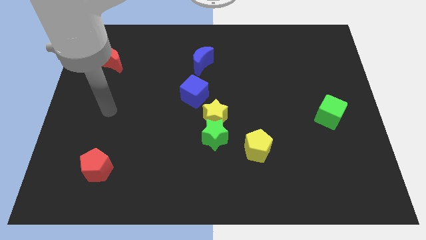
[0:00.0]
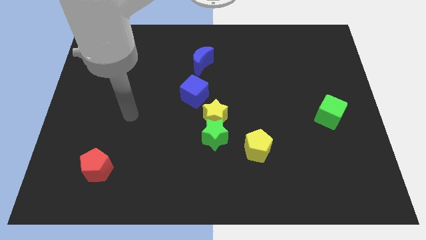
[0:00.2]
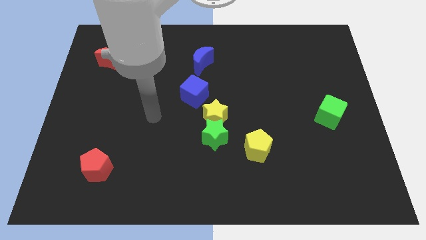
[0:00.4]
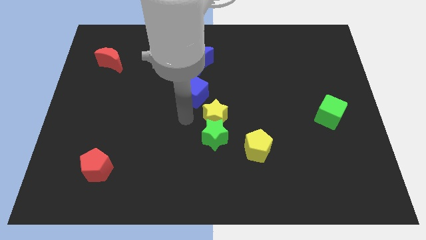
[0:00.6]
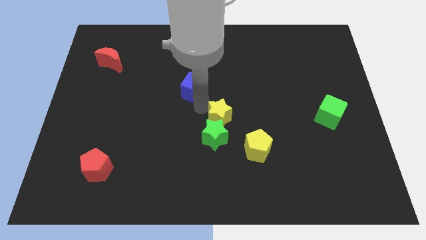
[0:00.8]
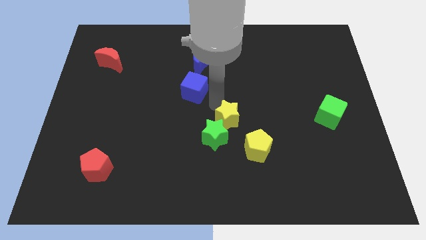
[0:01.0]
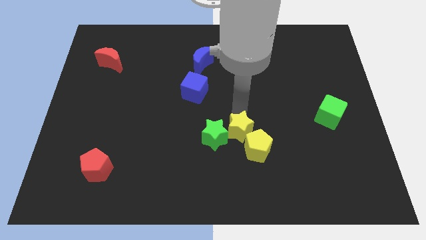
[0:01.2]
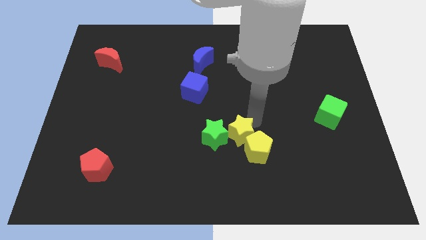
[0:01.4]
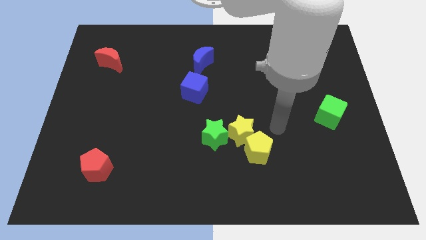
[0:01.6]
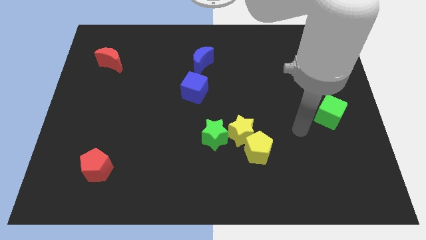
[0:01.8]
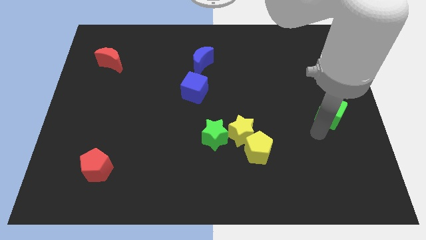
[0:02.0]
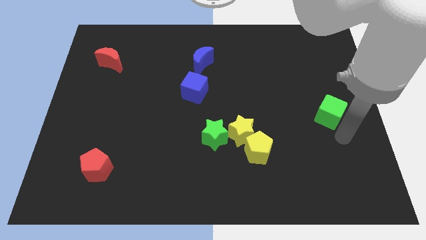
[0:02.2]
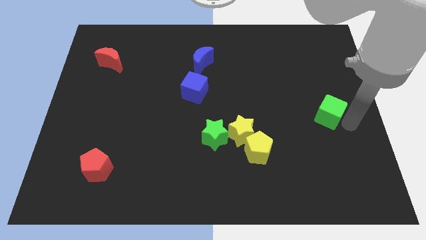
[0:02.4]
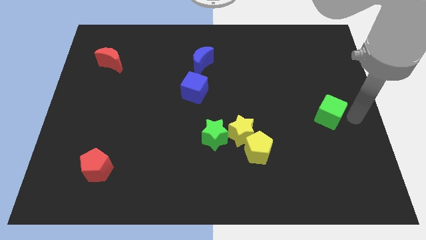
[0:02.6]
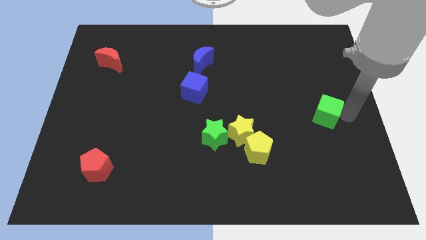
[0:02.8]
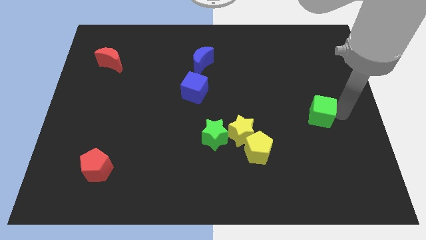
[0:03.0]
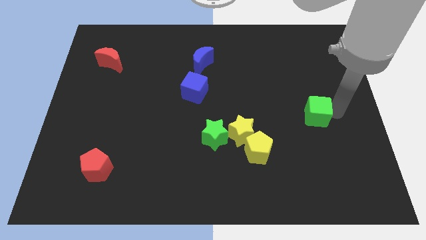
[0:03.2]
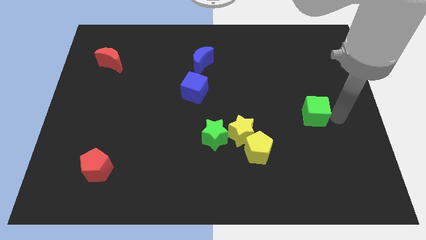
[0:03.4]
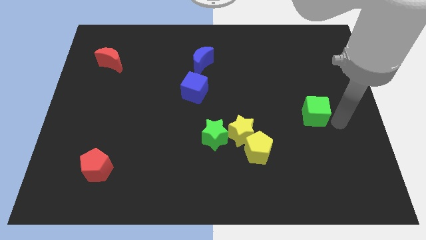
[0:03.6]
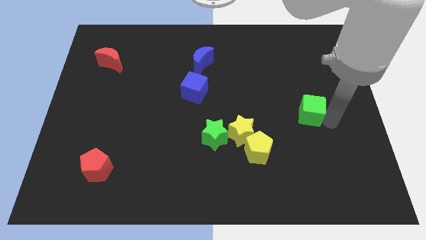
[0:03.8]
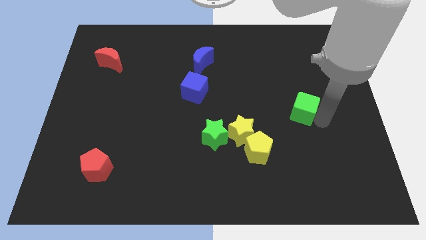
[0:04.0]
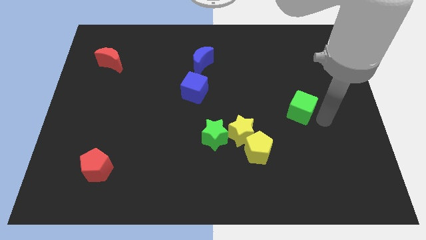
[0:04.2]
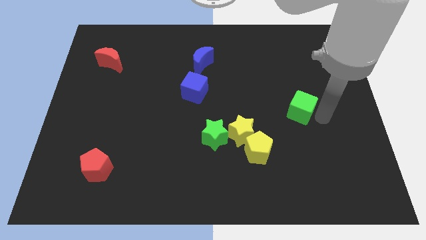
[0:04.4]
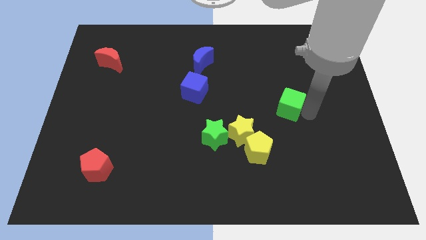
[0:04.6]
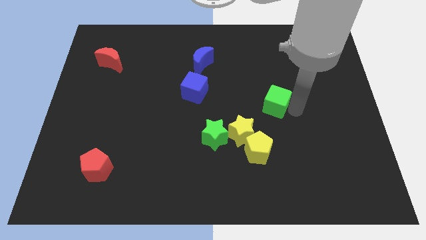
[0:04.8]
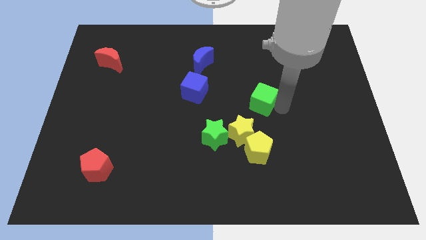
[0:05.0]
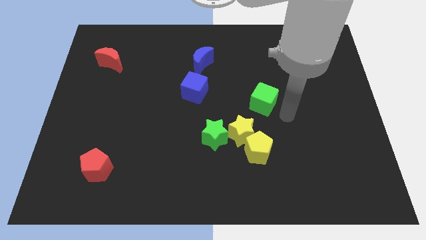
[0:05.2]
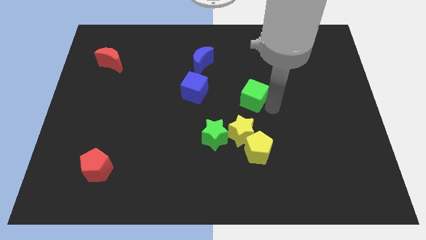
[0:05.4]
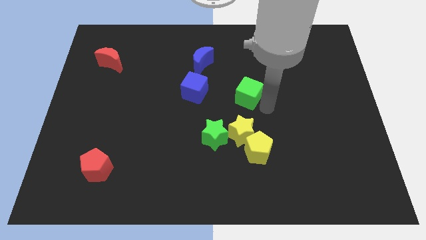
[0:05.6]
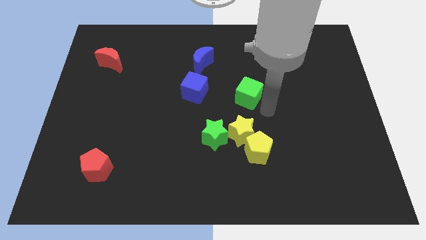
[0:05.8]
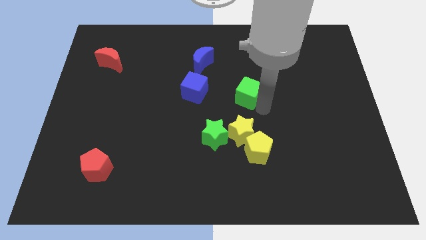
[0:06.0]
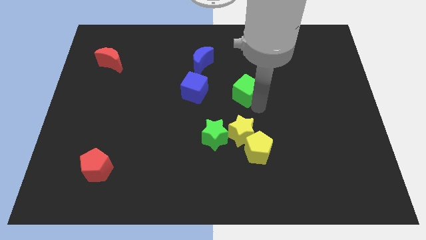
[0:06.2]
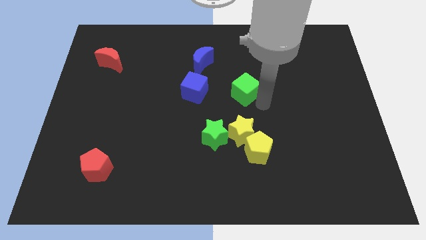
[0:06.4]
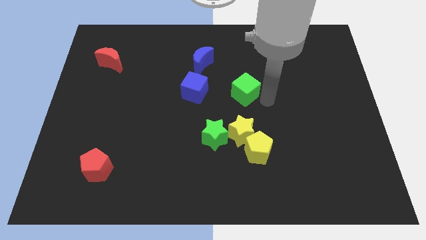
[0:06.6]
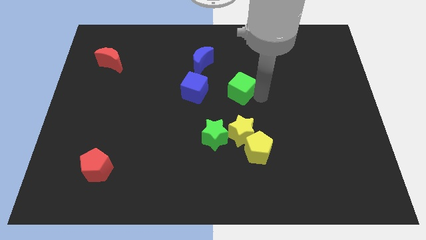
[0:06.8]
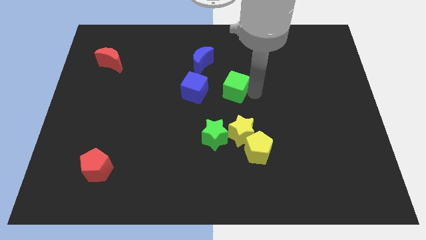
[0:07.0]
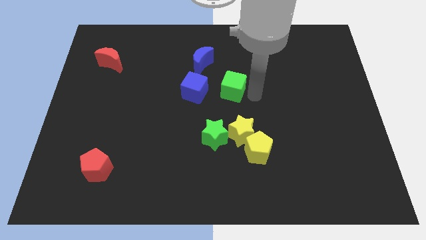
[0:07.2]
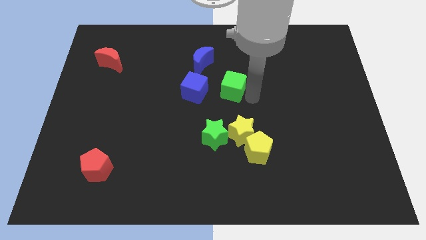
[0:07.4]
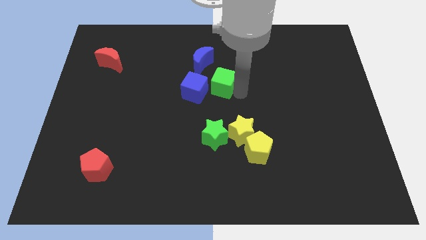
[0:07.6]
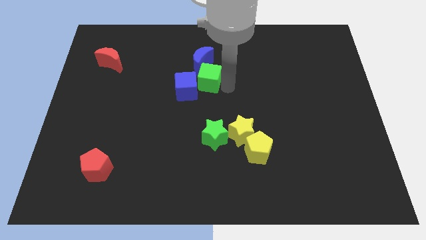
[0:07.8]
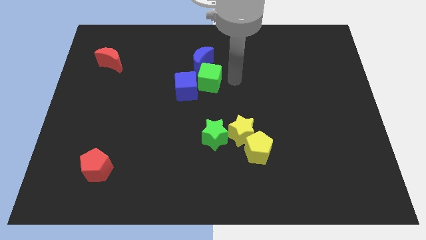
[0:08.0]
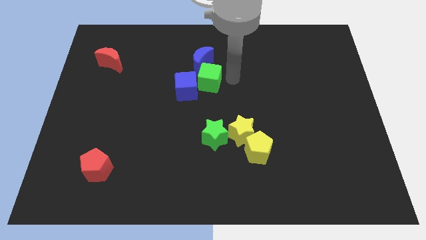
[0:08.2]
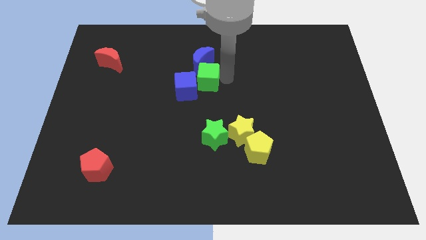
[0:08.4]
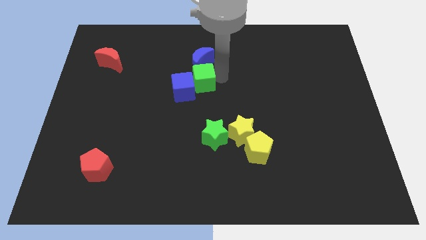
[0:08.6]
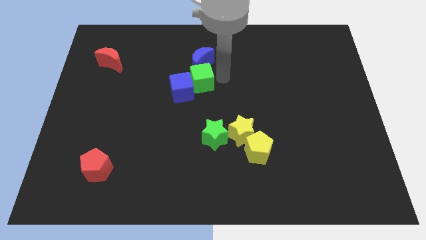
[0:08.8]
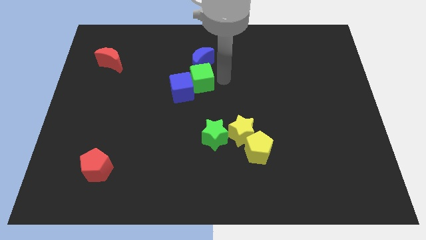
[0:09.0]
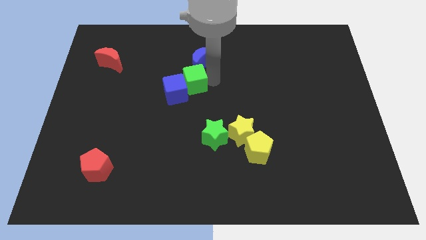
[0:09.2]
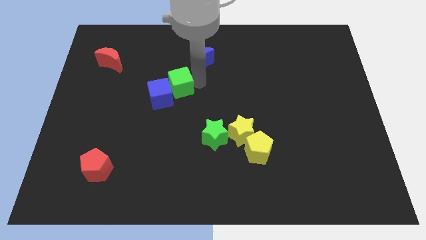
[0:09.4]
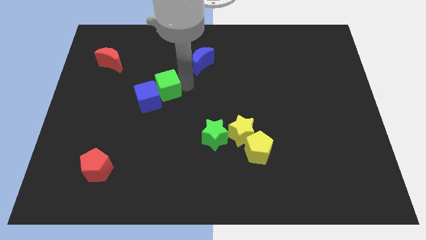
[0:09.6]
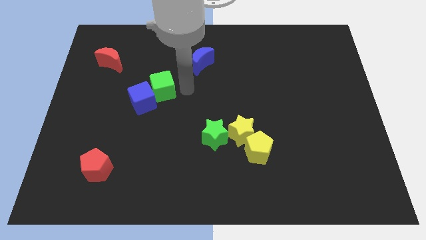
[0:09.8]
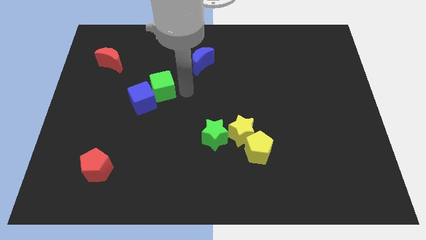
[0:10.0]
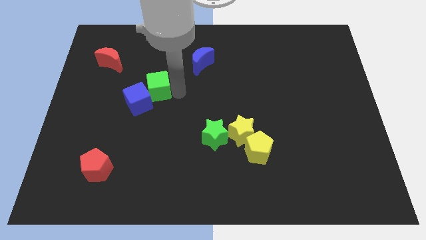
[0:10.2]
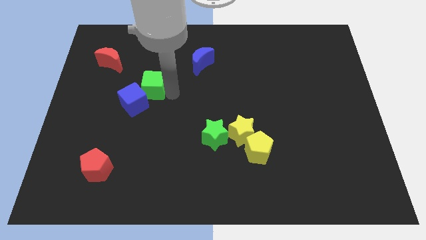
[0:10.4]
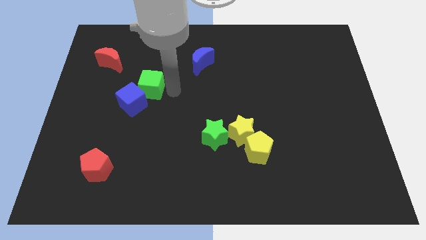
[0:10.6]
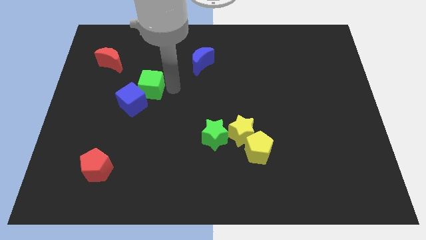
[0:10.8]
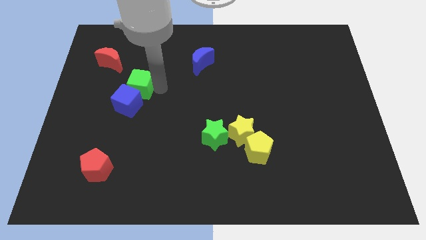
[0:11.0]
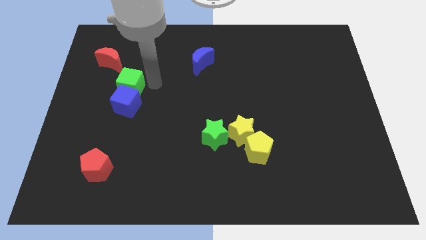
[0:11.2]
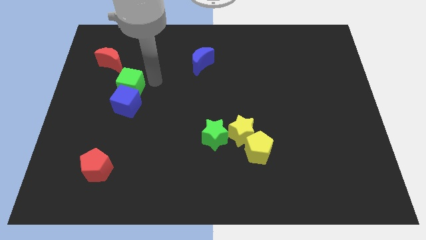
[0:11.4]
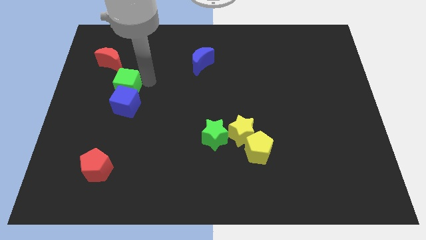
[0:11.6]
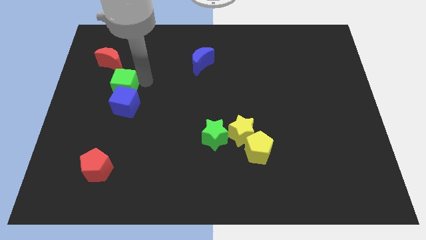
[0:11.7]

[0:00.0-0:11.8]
push the green cube to the bottom side of the red moon

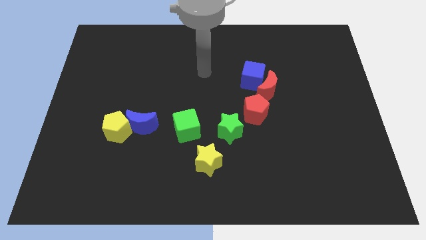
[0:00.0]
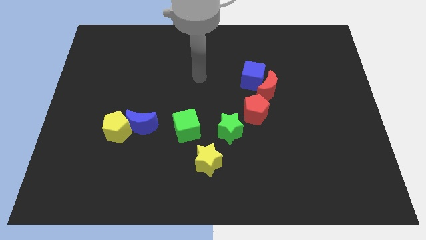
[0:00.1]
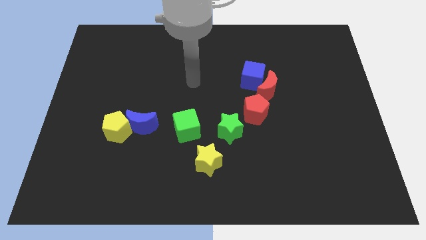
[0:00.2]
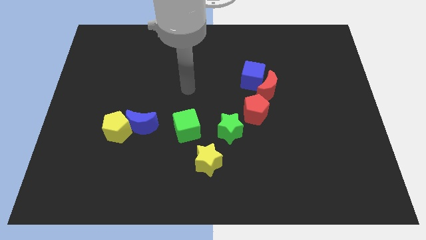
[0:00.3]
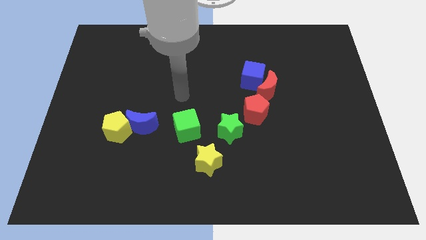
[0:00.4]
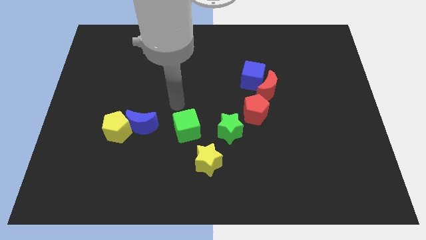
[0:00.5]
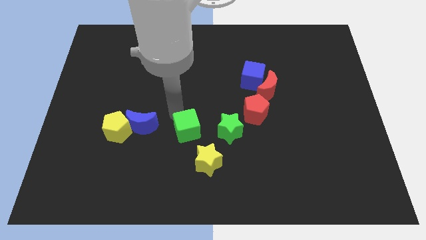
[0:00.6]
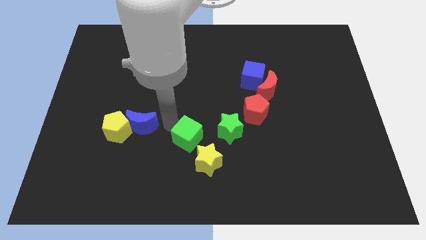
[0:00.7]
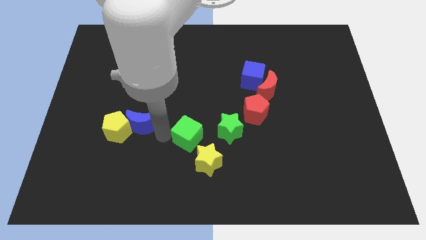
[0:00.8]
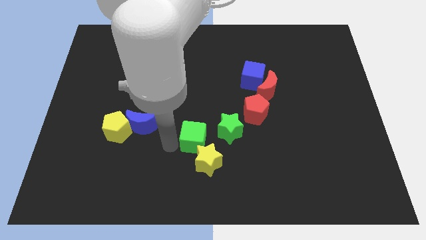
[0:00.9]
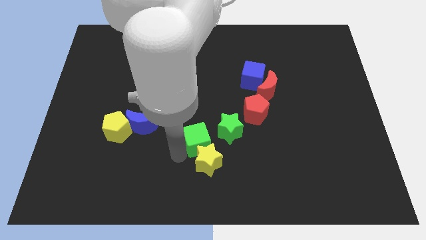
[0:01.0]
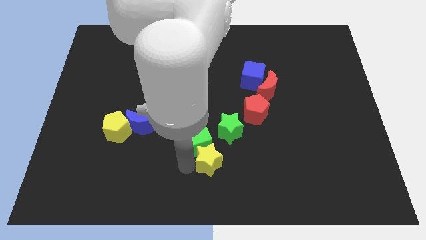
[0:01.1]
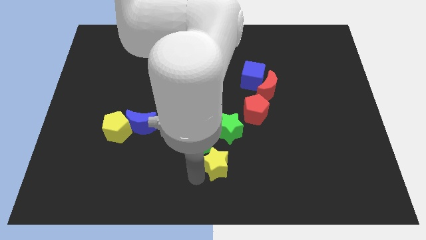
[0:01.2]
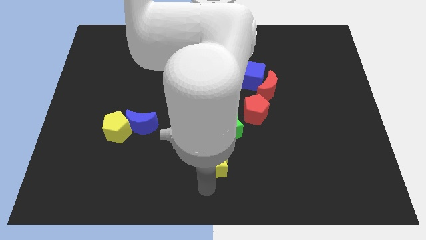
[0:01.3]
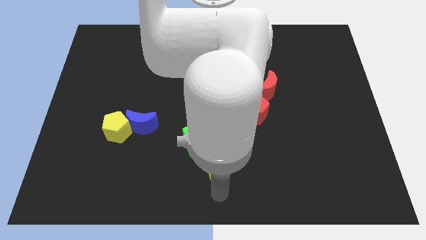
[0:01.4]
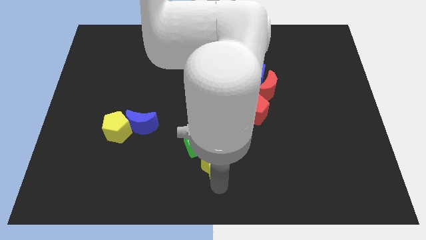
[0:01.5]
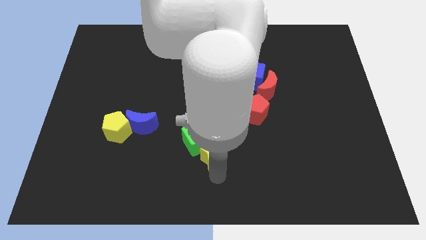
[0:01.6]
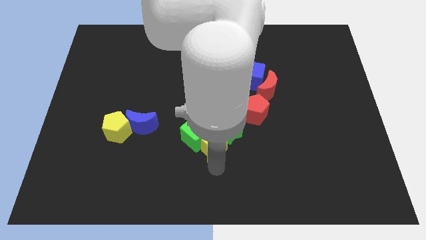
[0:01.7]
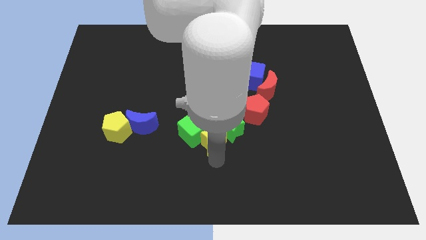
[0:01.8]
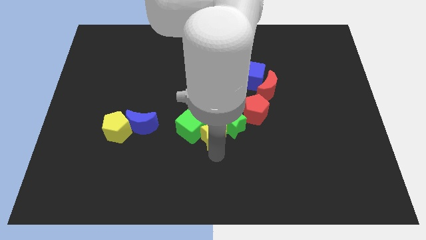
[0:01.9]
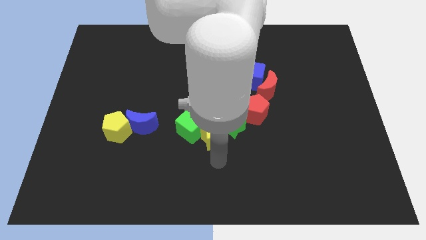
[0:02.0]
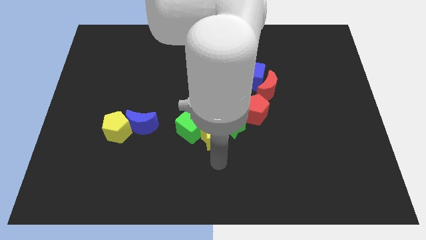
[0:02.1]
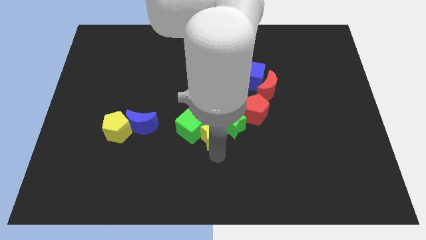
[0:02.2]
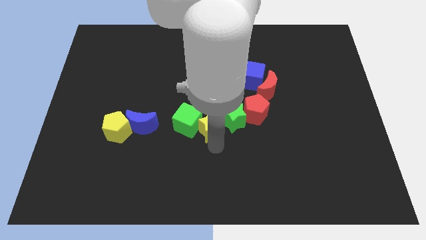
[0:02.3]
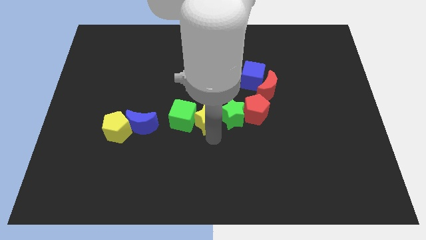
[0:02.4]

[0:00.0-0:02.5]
slide the yellow star to the top left side of the green star
